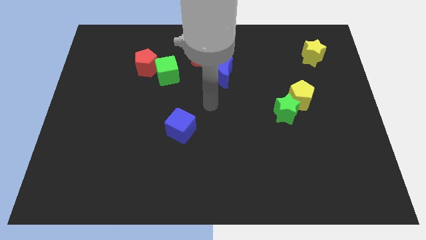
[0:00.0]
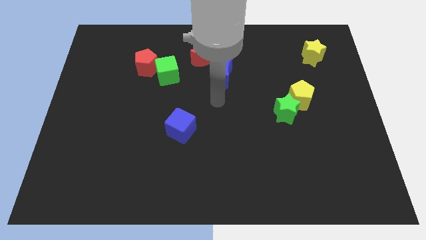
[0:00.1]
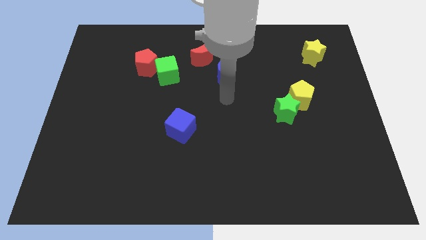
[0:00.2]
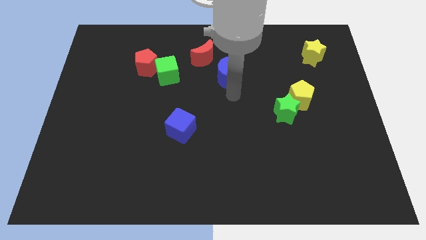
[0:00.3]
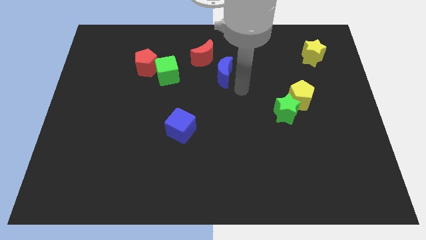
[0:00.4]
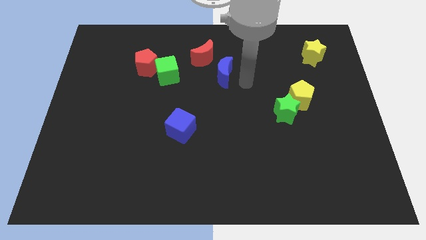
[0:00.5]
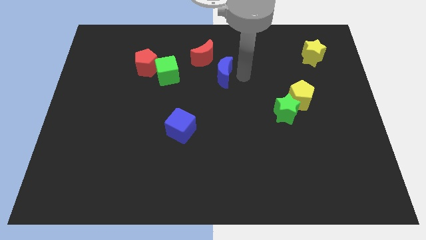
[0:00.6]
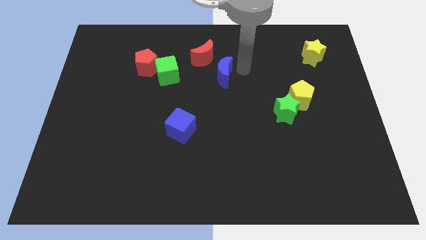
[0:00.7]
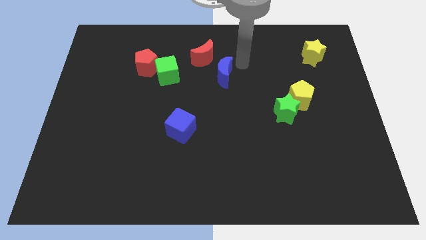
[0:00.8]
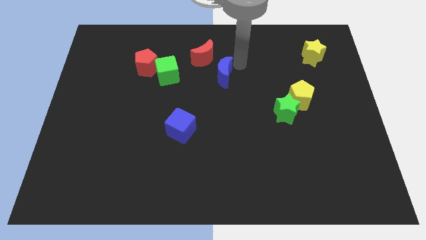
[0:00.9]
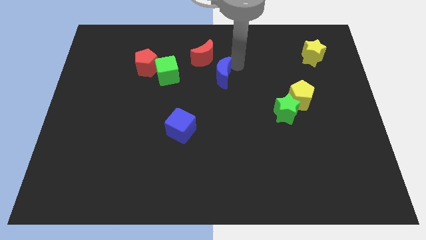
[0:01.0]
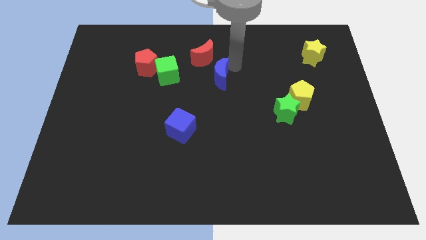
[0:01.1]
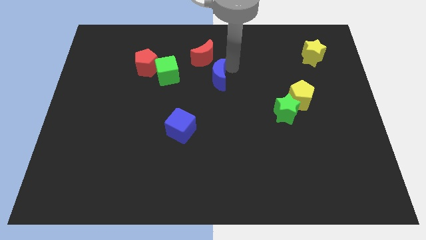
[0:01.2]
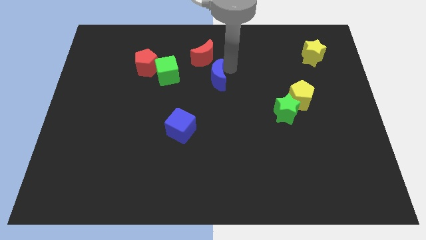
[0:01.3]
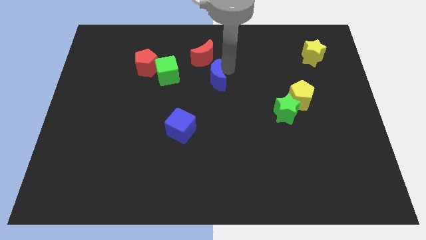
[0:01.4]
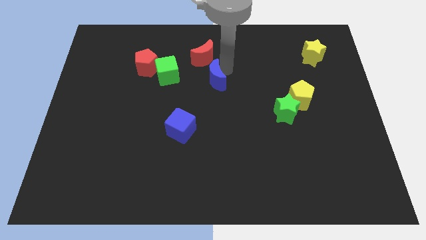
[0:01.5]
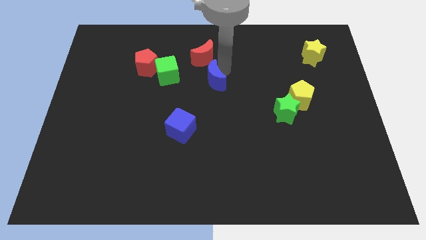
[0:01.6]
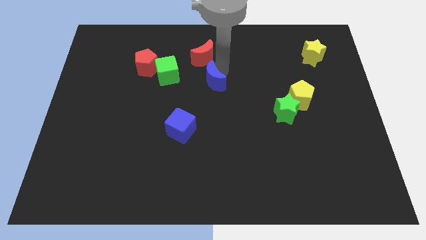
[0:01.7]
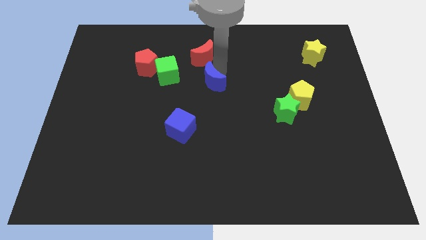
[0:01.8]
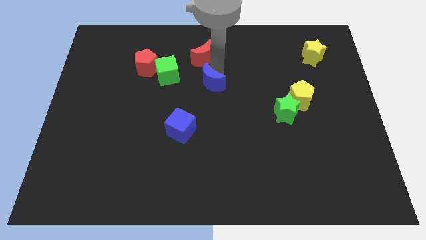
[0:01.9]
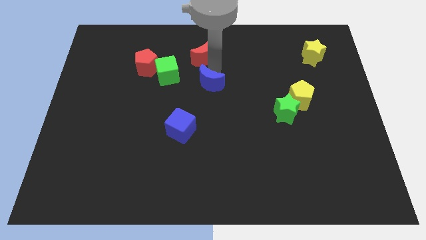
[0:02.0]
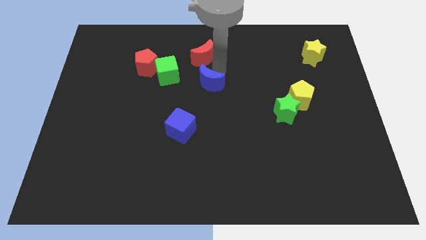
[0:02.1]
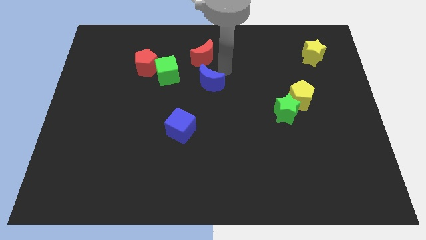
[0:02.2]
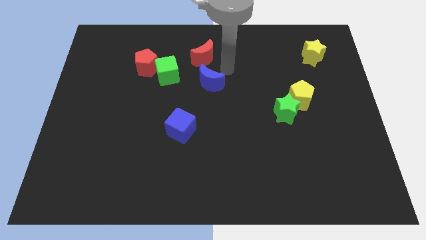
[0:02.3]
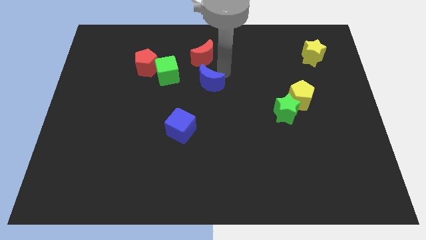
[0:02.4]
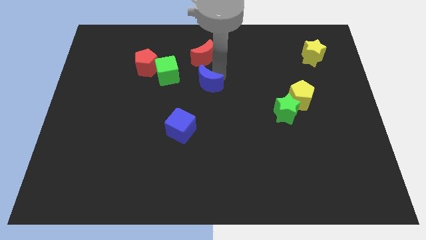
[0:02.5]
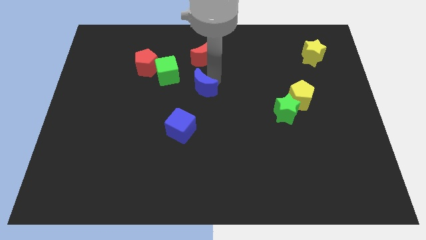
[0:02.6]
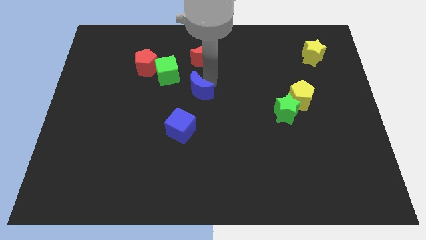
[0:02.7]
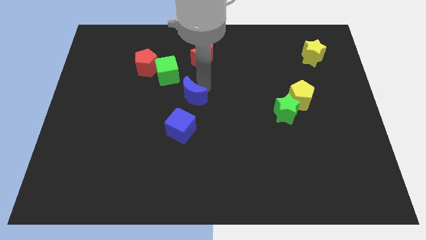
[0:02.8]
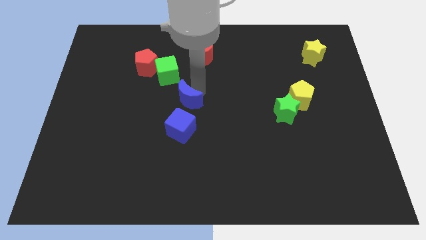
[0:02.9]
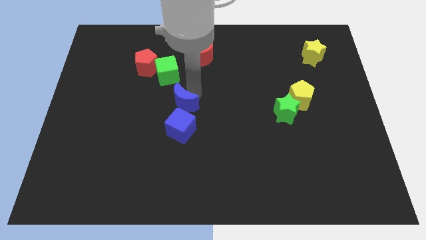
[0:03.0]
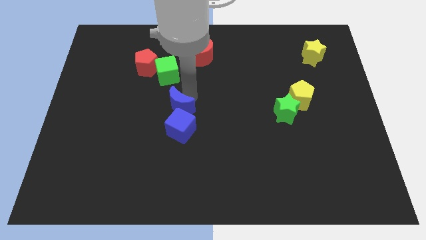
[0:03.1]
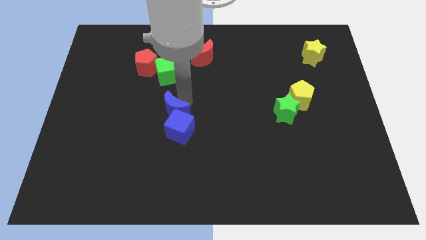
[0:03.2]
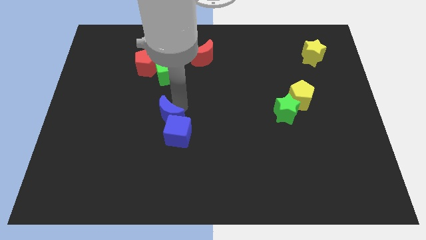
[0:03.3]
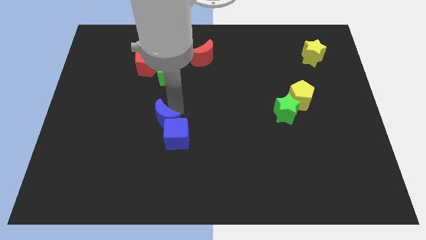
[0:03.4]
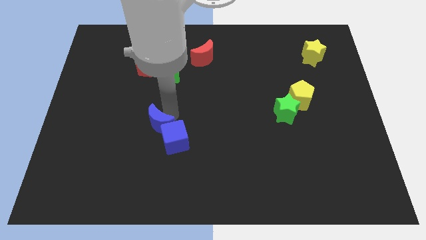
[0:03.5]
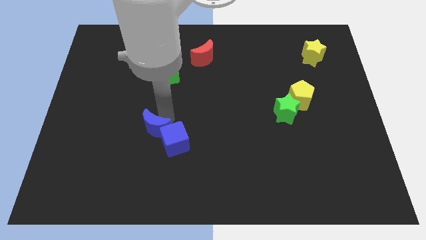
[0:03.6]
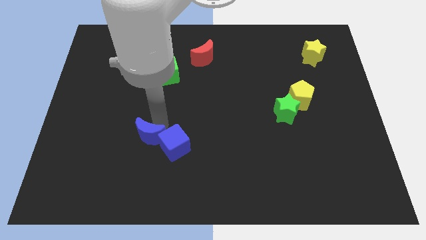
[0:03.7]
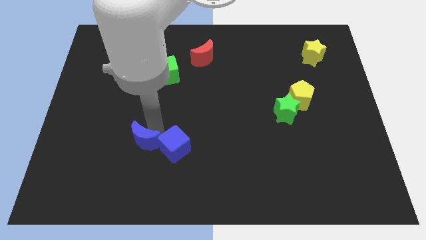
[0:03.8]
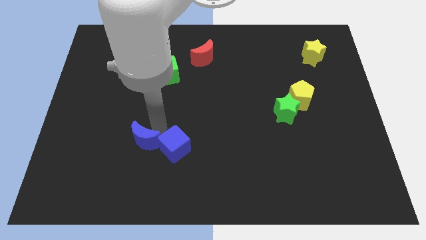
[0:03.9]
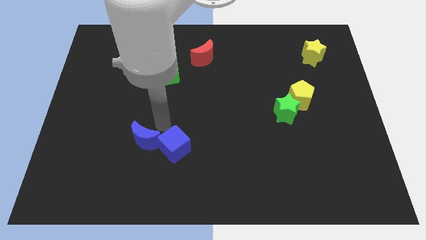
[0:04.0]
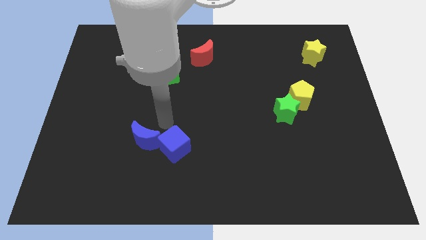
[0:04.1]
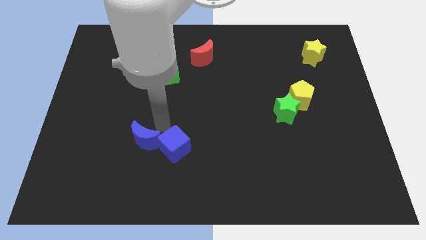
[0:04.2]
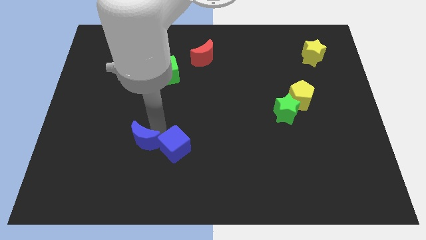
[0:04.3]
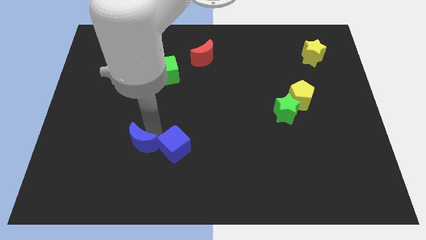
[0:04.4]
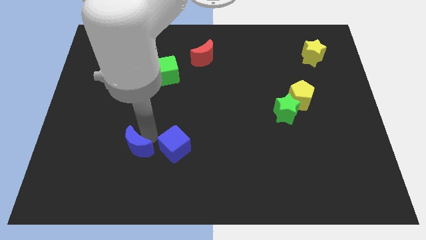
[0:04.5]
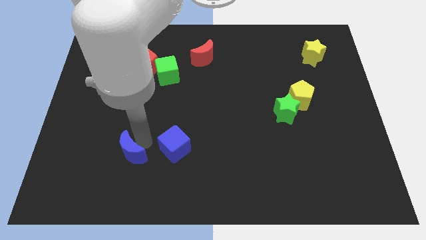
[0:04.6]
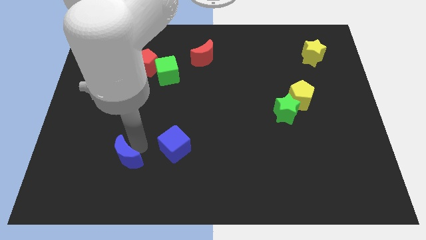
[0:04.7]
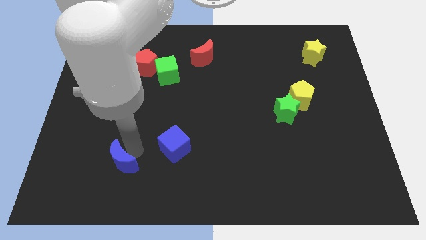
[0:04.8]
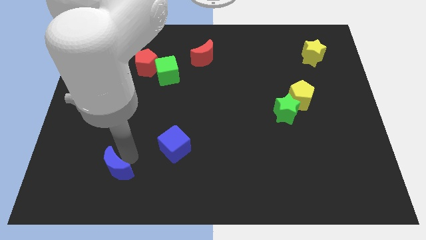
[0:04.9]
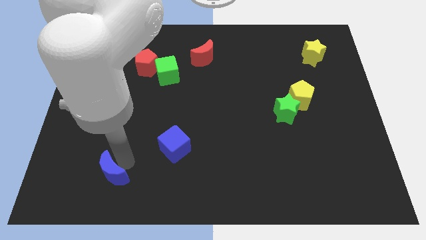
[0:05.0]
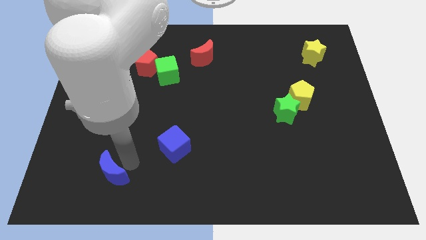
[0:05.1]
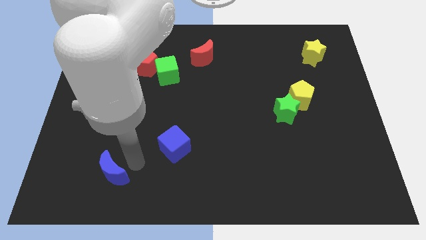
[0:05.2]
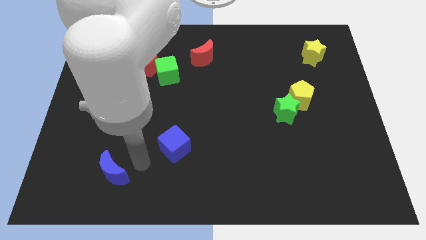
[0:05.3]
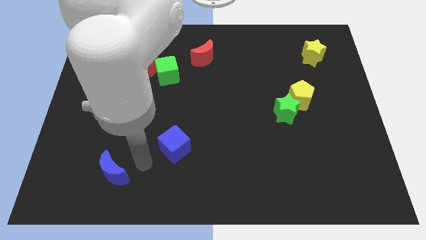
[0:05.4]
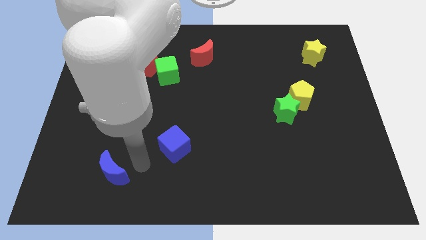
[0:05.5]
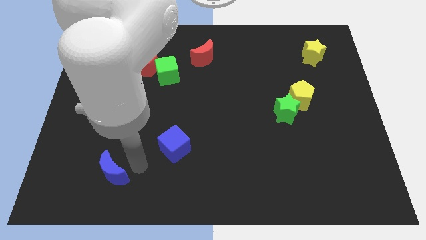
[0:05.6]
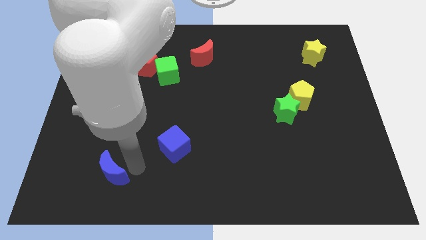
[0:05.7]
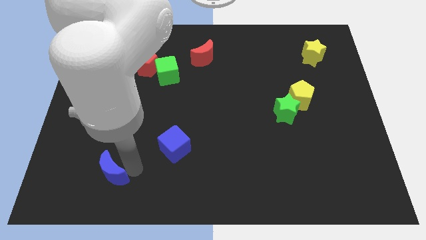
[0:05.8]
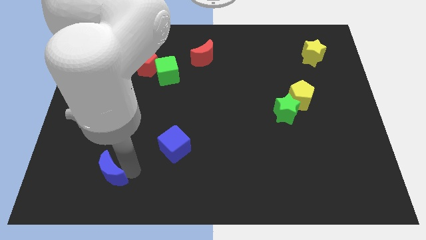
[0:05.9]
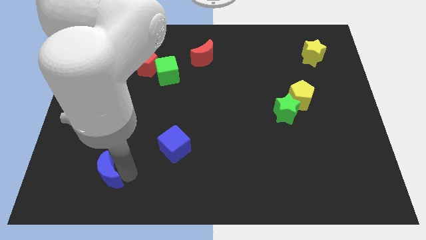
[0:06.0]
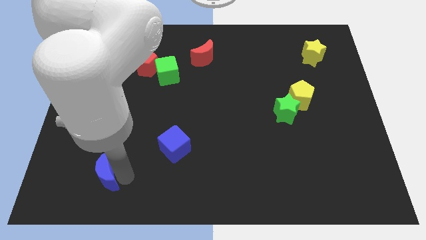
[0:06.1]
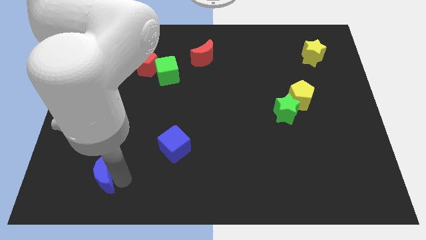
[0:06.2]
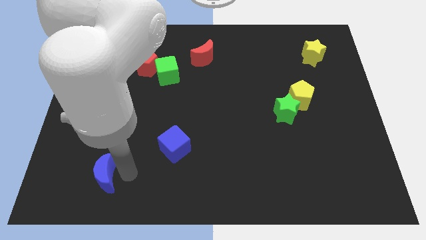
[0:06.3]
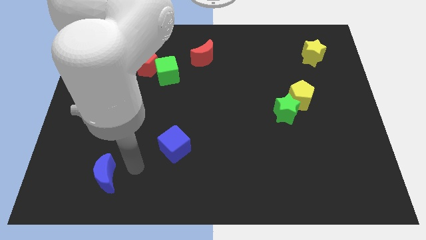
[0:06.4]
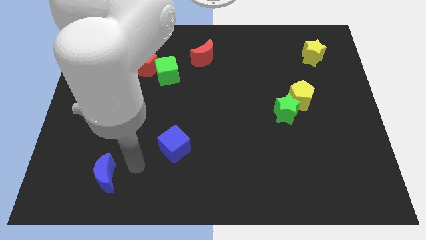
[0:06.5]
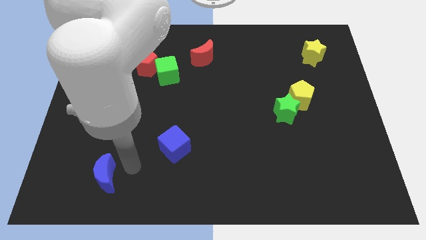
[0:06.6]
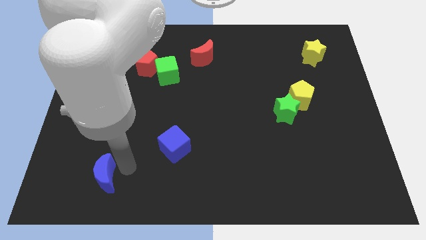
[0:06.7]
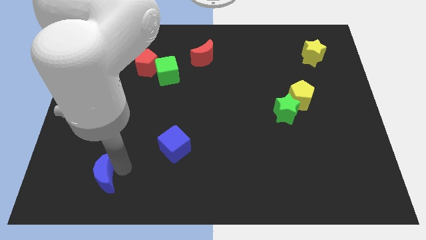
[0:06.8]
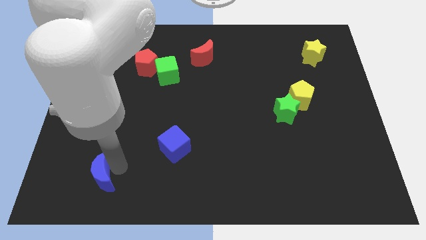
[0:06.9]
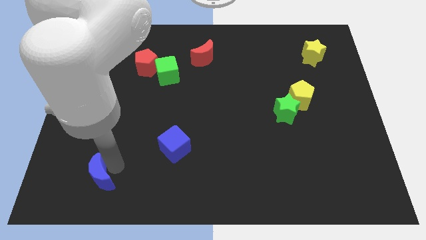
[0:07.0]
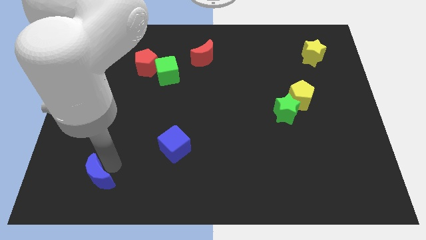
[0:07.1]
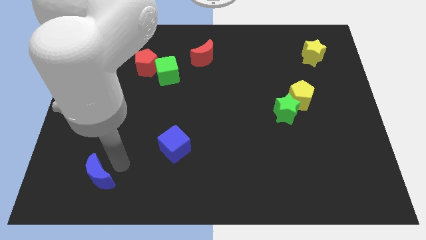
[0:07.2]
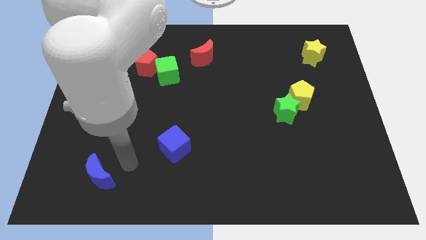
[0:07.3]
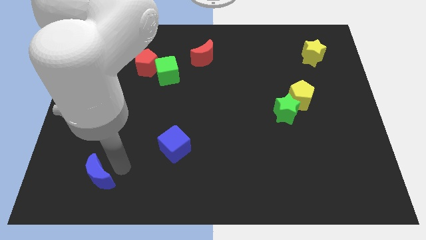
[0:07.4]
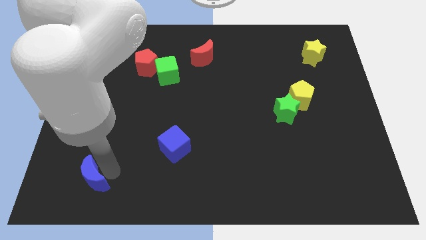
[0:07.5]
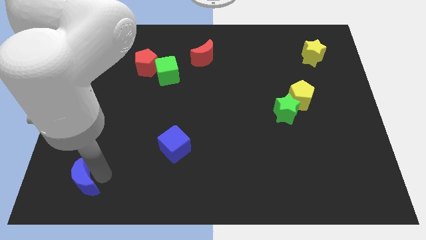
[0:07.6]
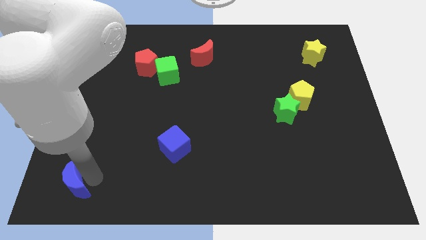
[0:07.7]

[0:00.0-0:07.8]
move the blue moon to the bottom left
